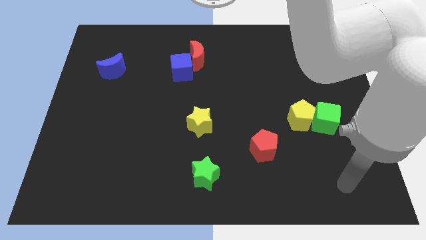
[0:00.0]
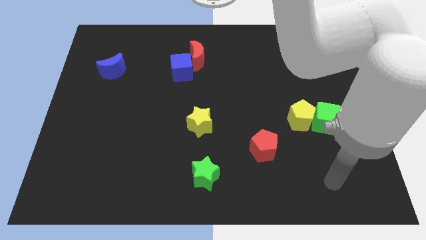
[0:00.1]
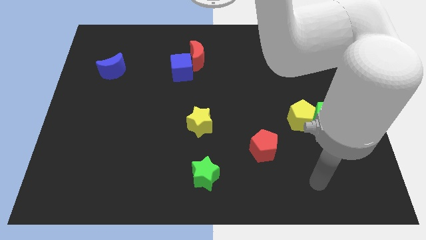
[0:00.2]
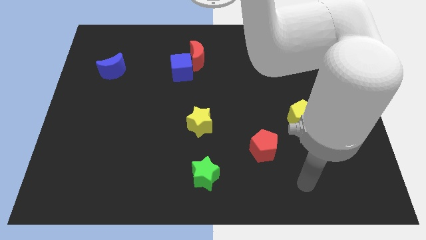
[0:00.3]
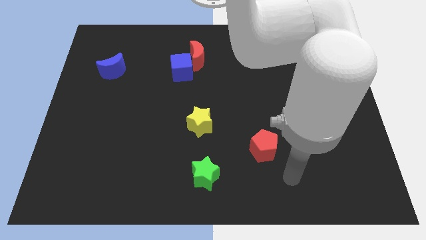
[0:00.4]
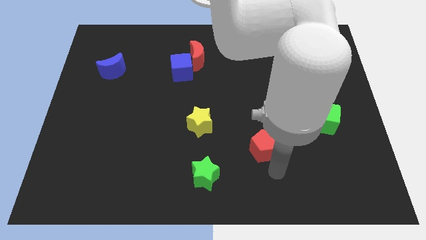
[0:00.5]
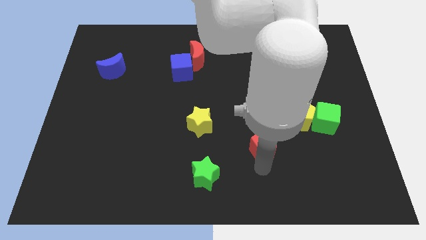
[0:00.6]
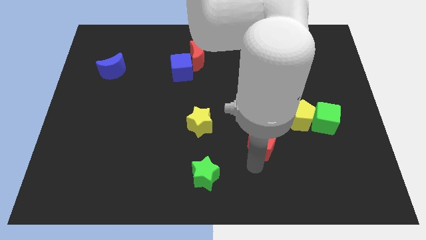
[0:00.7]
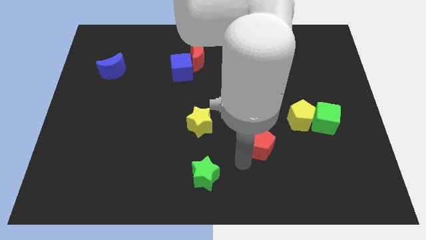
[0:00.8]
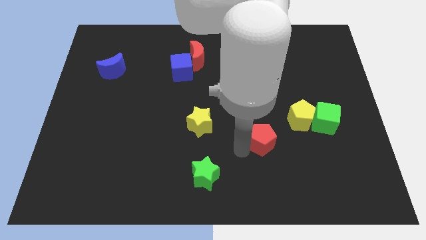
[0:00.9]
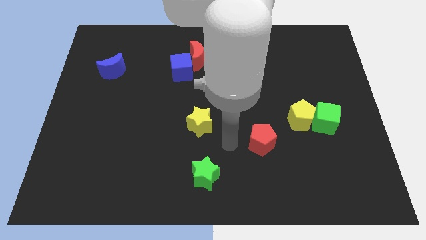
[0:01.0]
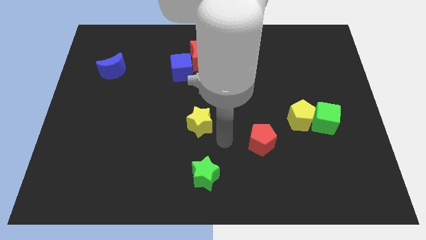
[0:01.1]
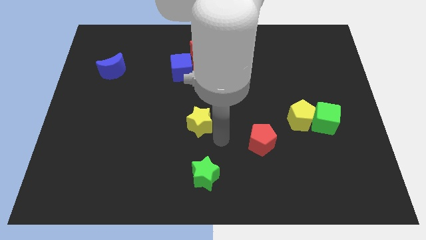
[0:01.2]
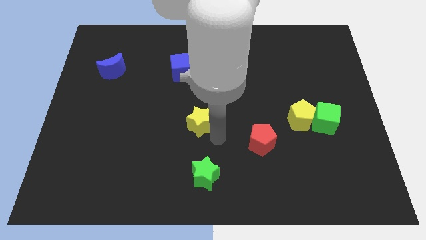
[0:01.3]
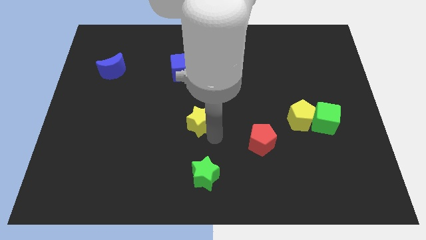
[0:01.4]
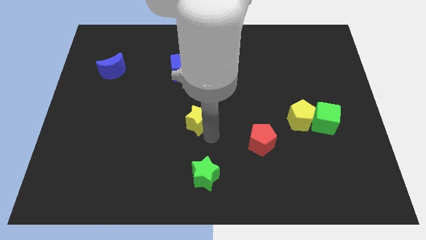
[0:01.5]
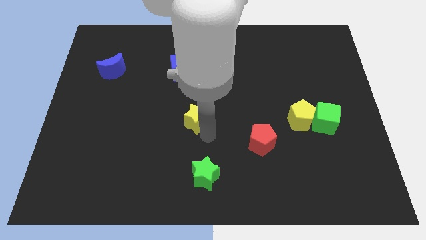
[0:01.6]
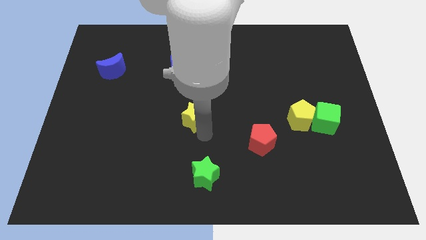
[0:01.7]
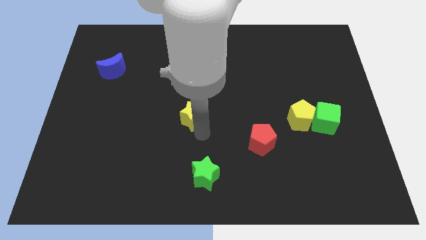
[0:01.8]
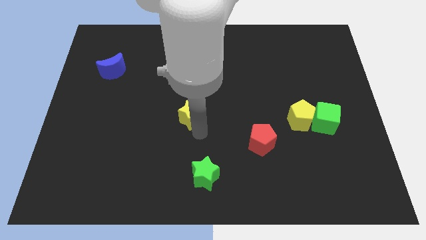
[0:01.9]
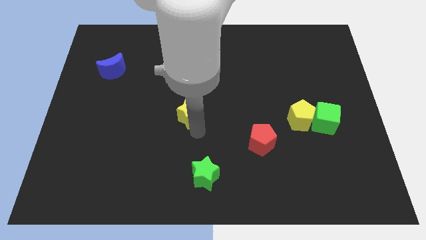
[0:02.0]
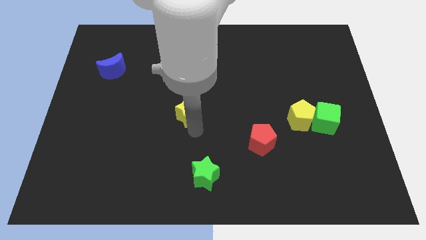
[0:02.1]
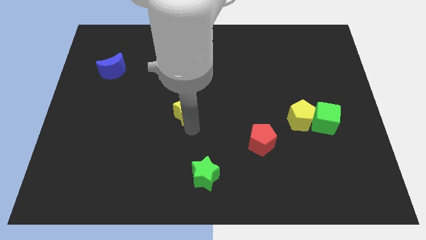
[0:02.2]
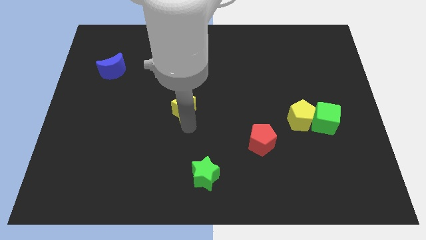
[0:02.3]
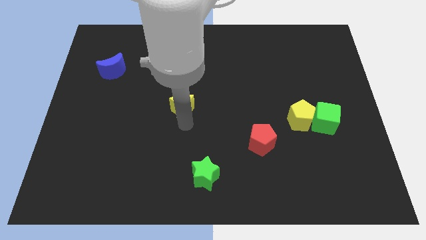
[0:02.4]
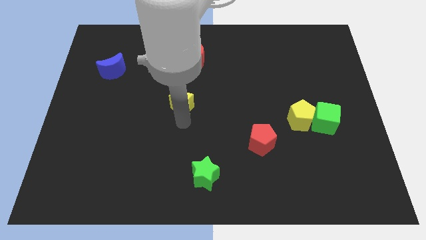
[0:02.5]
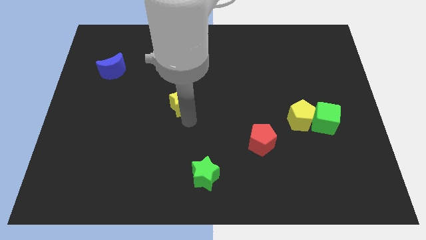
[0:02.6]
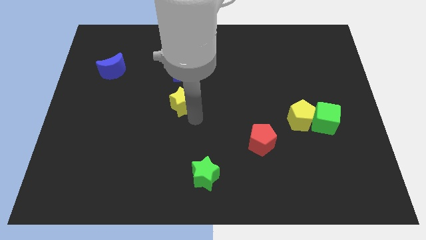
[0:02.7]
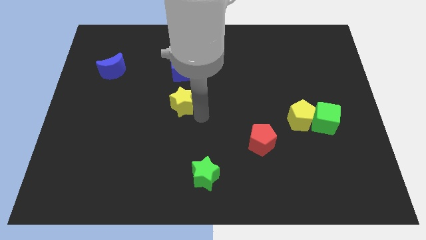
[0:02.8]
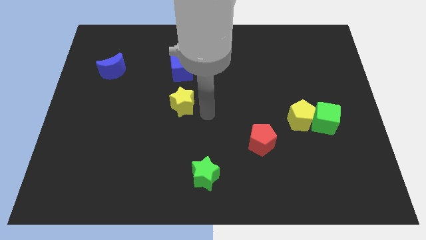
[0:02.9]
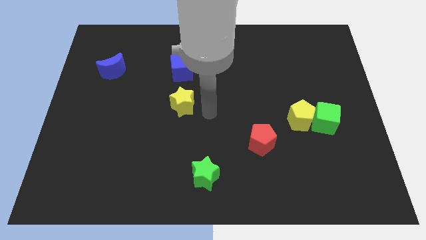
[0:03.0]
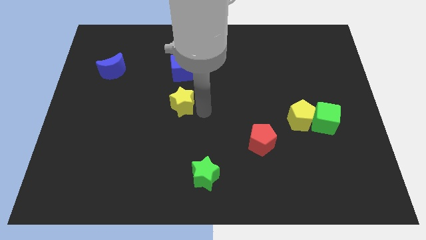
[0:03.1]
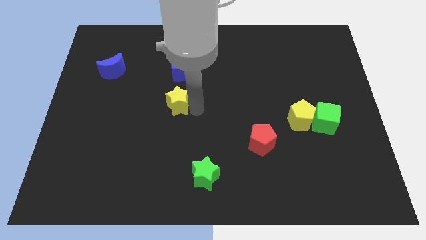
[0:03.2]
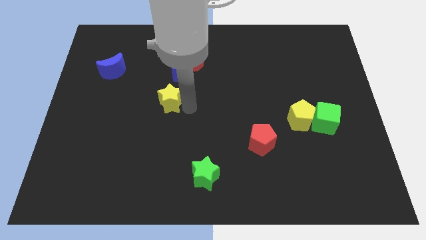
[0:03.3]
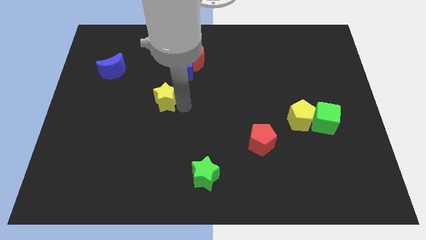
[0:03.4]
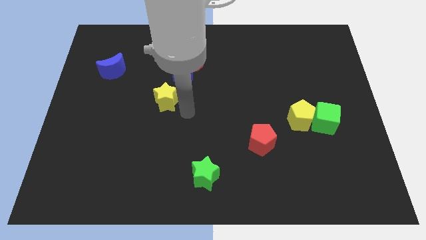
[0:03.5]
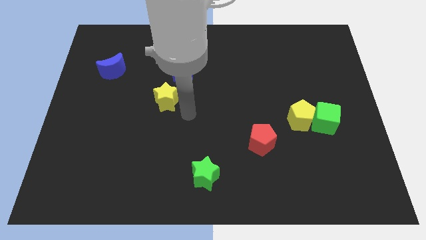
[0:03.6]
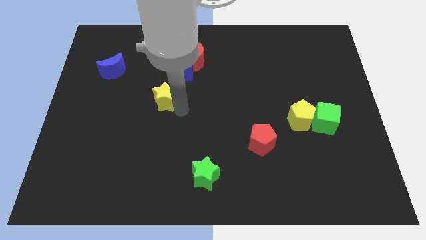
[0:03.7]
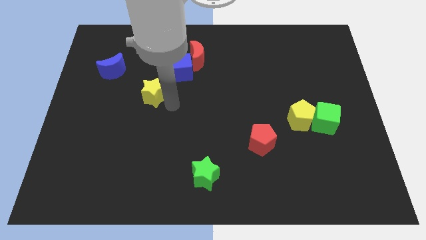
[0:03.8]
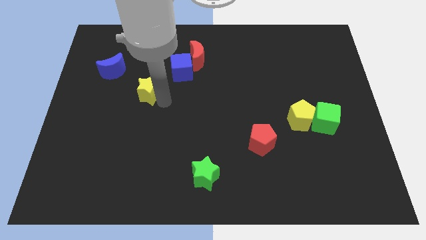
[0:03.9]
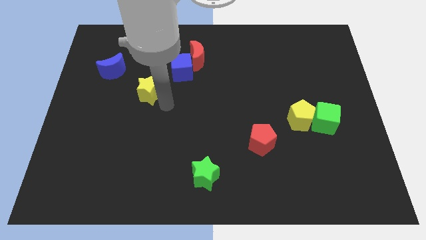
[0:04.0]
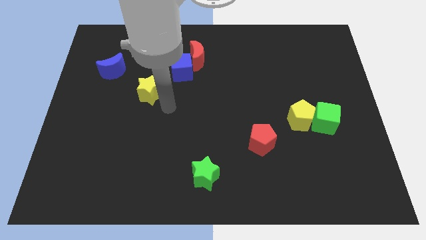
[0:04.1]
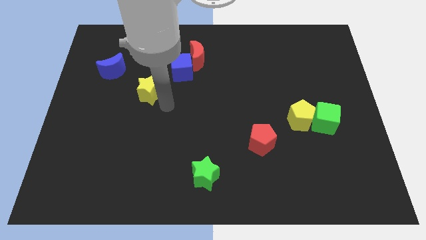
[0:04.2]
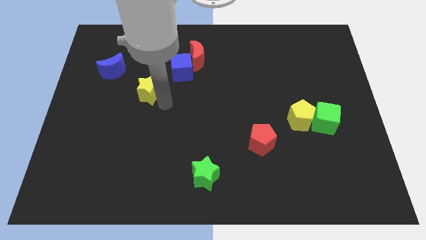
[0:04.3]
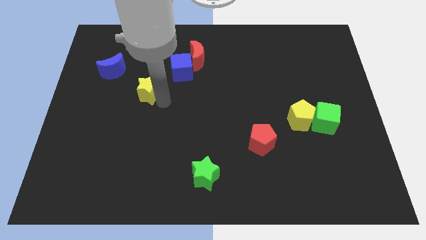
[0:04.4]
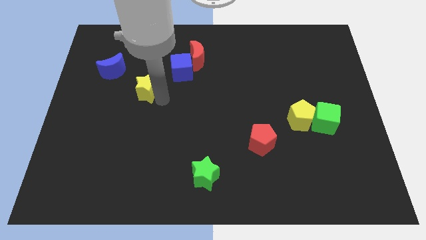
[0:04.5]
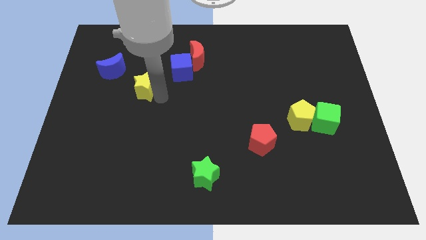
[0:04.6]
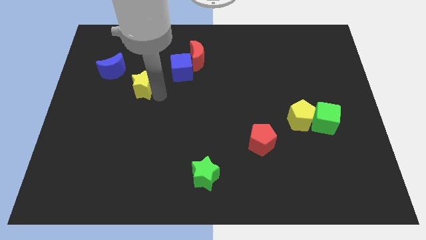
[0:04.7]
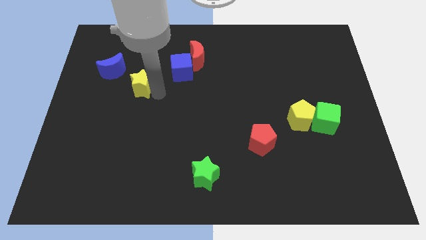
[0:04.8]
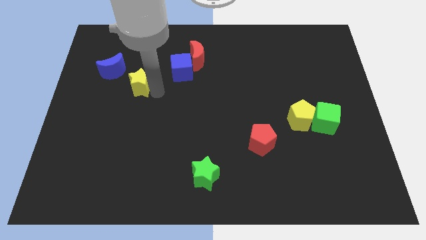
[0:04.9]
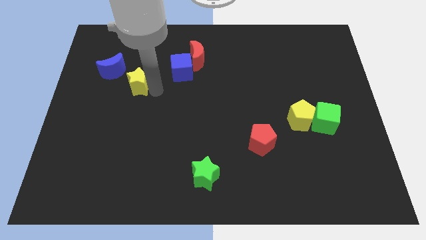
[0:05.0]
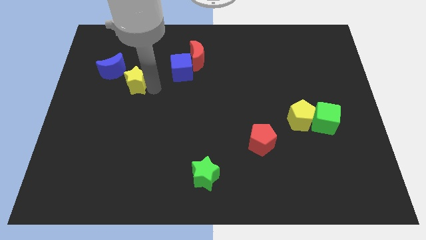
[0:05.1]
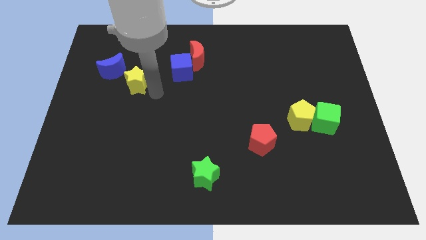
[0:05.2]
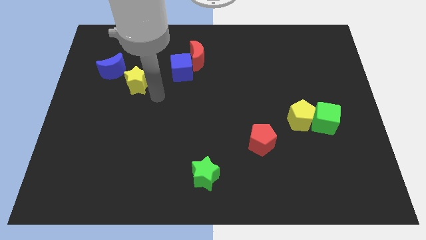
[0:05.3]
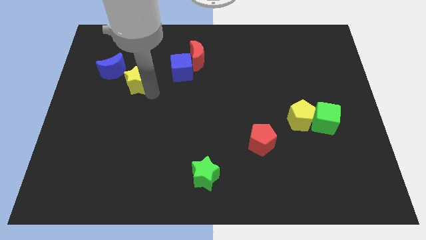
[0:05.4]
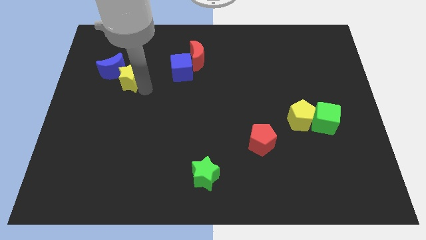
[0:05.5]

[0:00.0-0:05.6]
slide the yellow star towards the blue moon

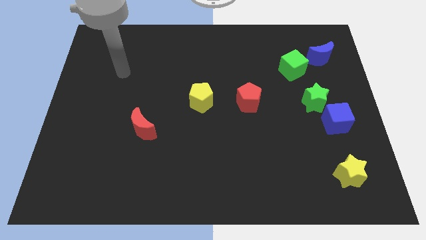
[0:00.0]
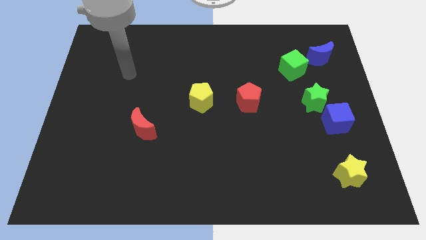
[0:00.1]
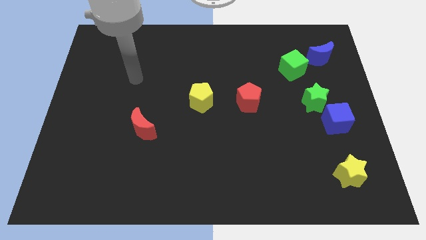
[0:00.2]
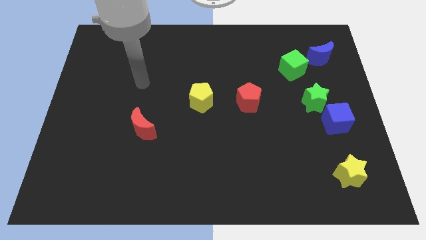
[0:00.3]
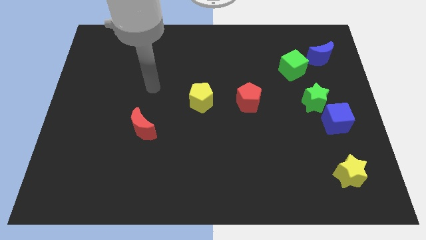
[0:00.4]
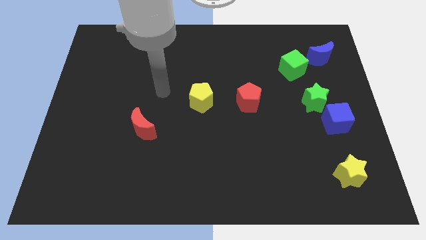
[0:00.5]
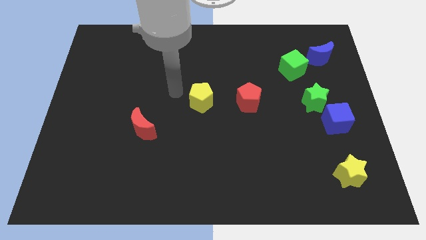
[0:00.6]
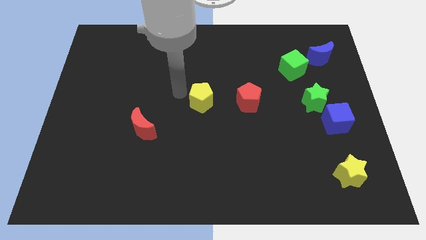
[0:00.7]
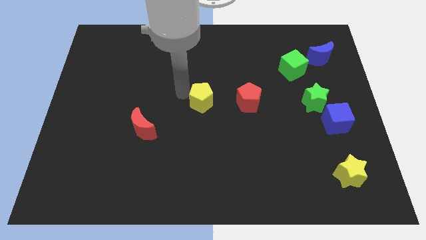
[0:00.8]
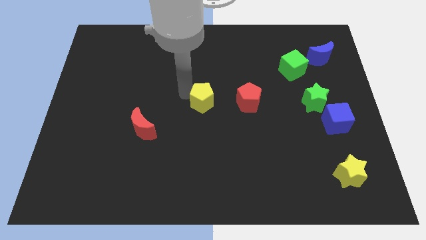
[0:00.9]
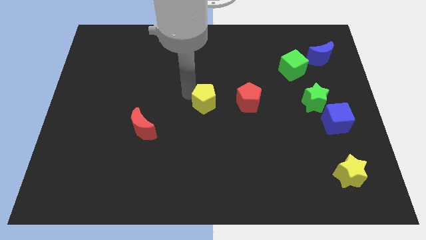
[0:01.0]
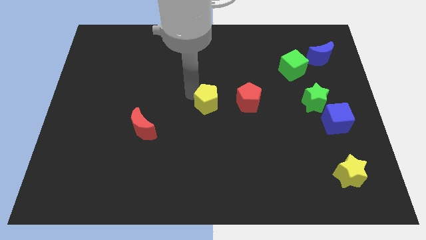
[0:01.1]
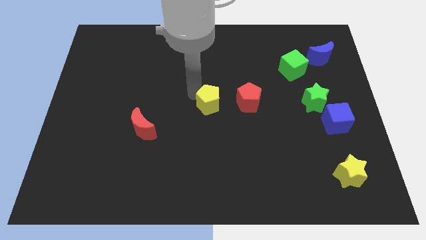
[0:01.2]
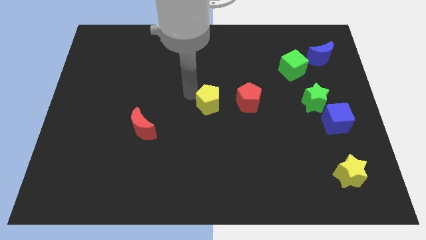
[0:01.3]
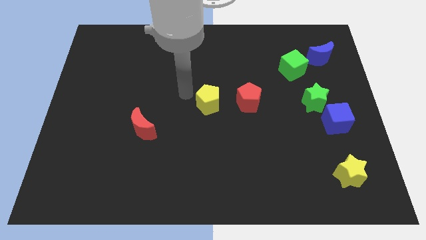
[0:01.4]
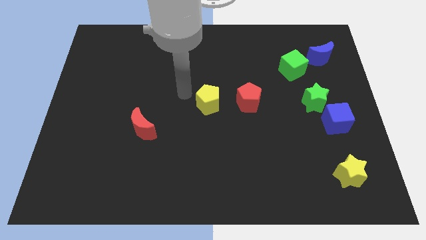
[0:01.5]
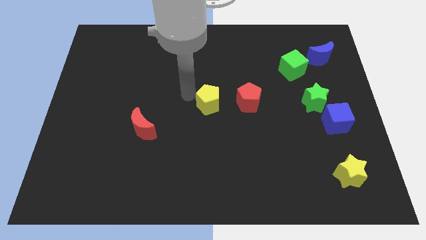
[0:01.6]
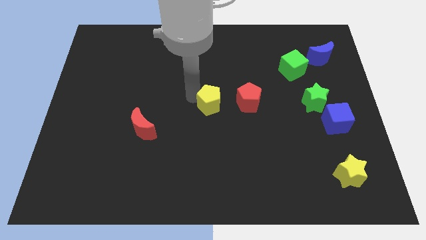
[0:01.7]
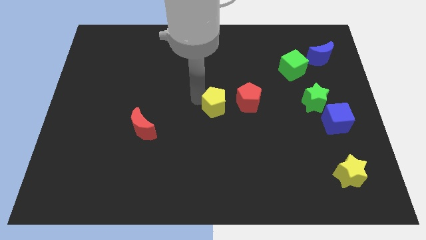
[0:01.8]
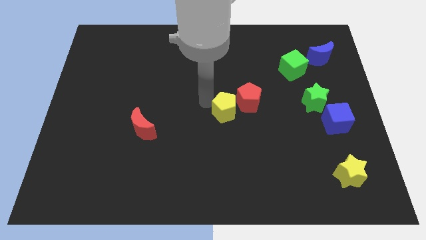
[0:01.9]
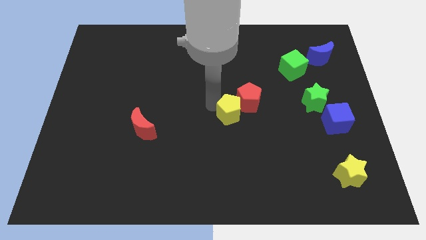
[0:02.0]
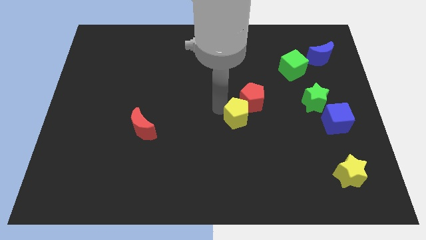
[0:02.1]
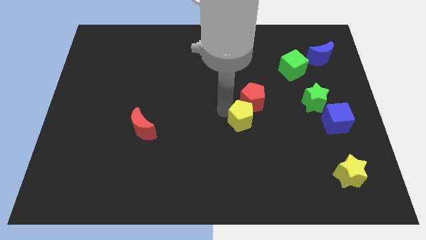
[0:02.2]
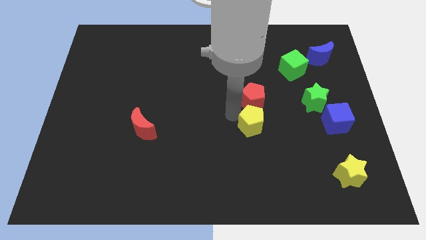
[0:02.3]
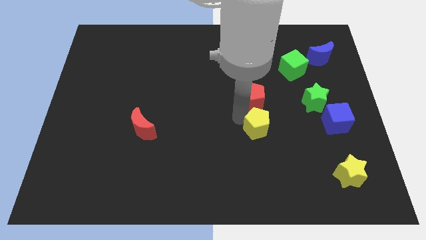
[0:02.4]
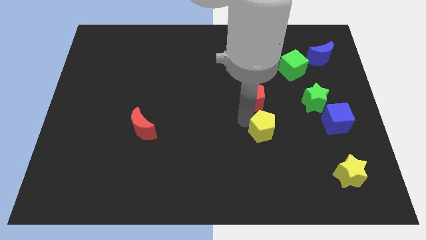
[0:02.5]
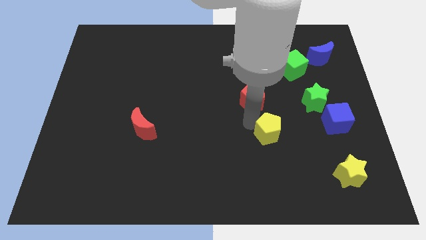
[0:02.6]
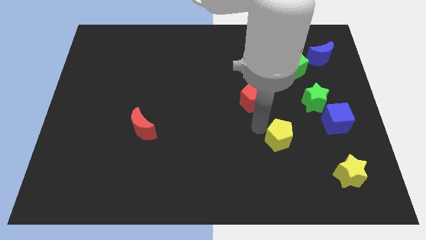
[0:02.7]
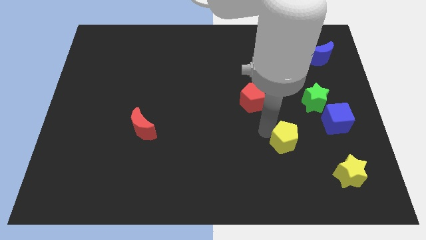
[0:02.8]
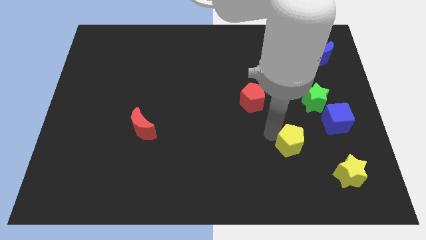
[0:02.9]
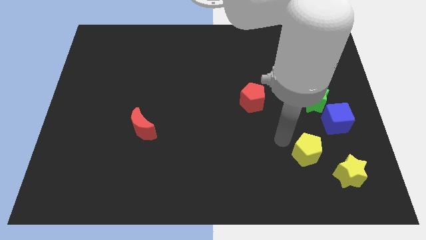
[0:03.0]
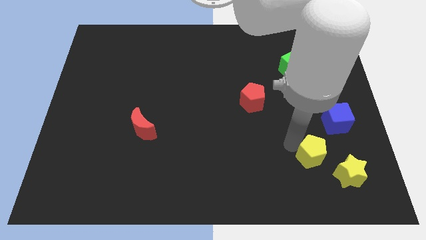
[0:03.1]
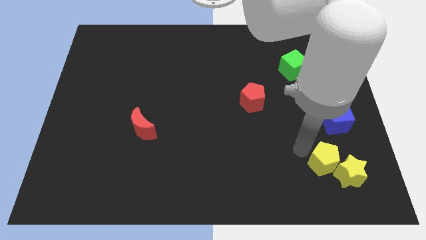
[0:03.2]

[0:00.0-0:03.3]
put the yellow pentagon towards the yellow star
